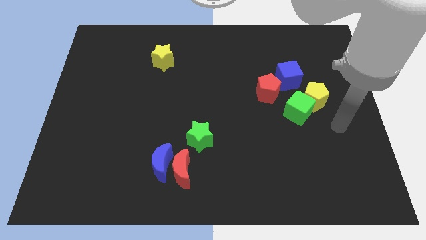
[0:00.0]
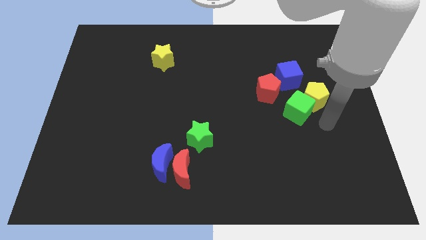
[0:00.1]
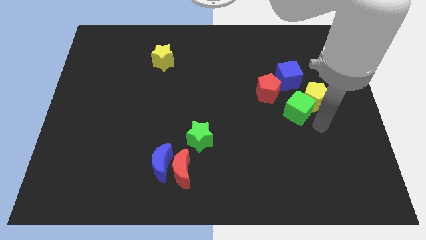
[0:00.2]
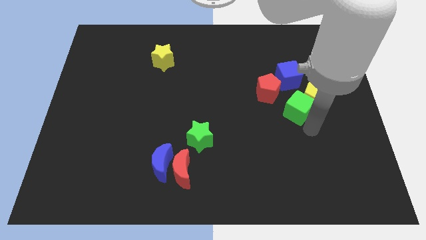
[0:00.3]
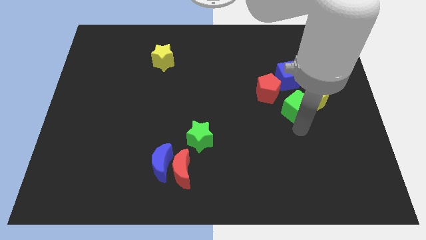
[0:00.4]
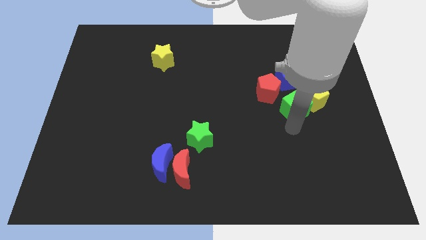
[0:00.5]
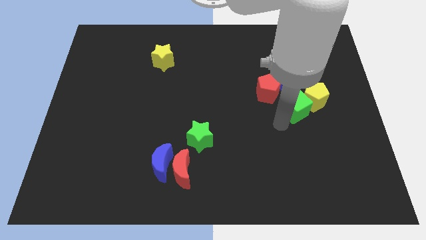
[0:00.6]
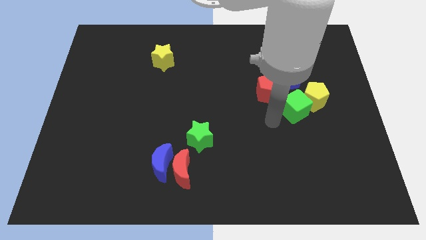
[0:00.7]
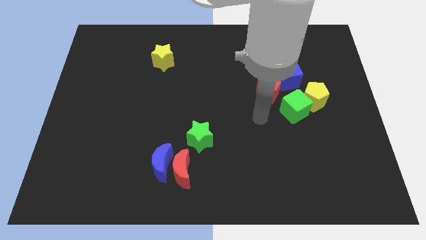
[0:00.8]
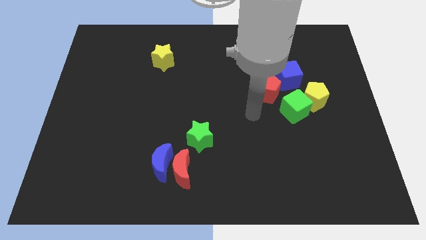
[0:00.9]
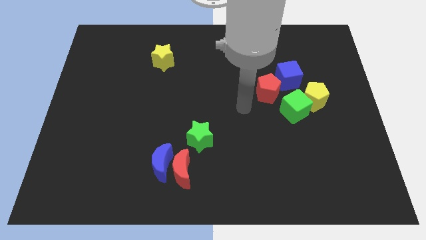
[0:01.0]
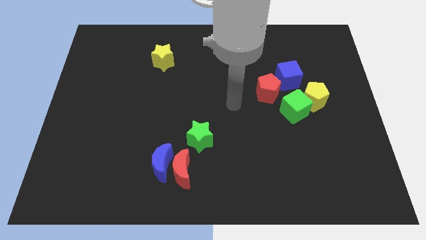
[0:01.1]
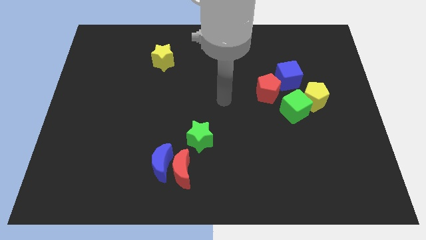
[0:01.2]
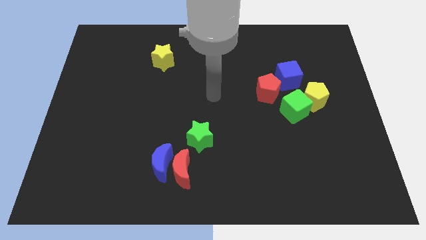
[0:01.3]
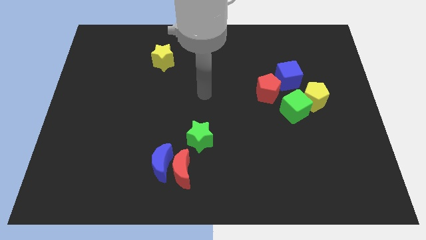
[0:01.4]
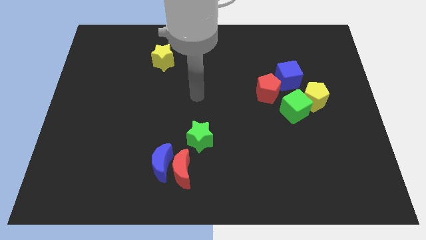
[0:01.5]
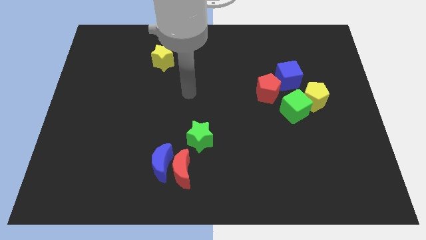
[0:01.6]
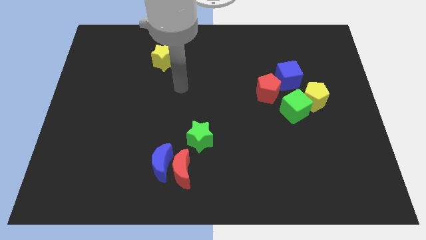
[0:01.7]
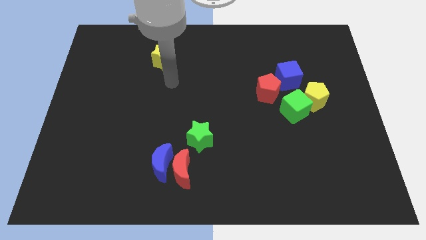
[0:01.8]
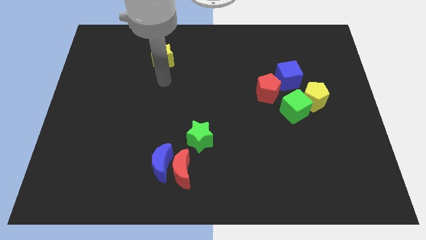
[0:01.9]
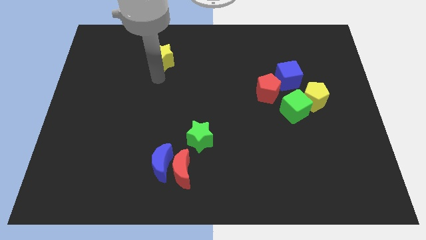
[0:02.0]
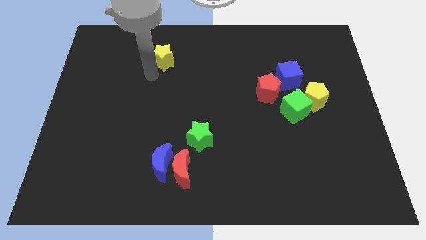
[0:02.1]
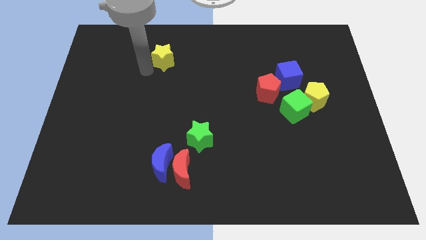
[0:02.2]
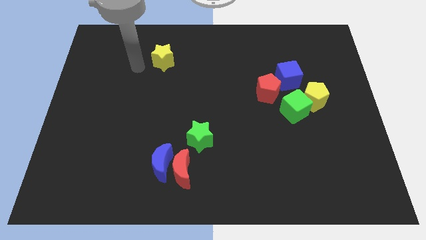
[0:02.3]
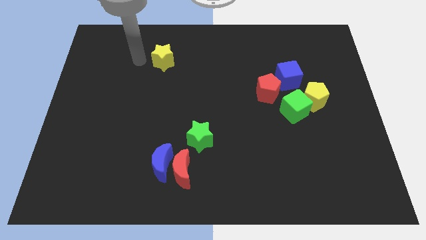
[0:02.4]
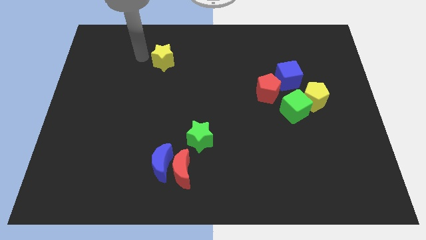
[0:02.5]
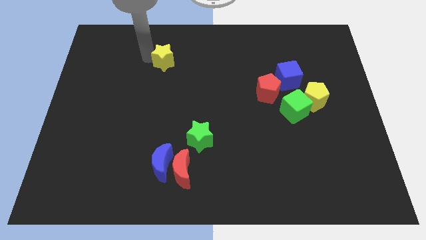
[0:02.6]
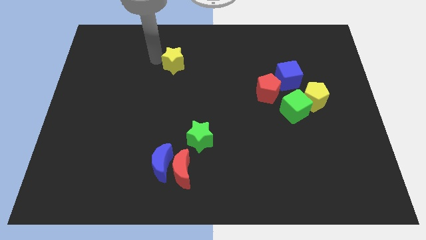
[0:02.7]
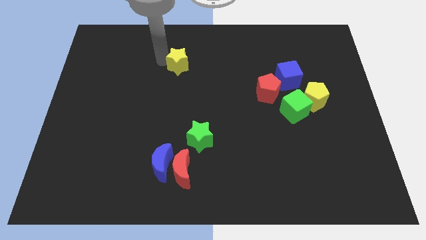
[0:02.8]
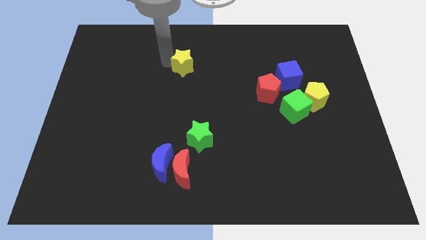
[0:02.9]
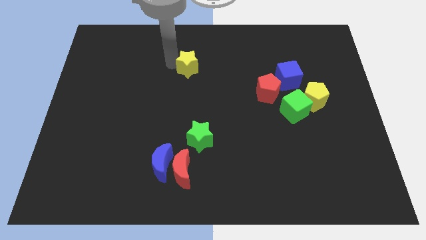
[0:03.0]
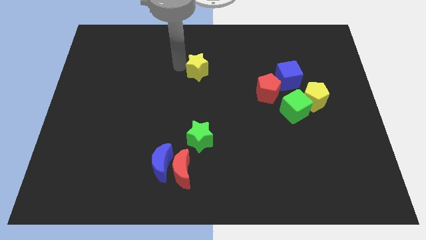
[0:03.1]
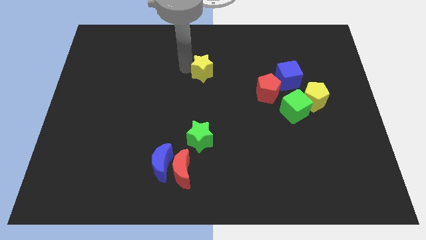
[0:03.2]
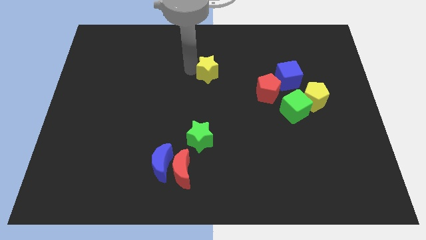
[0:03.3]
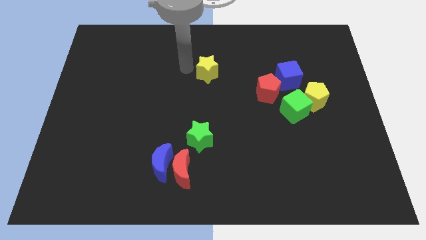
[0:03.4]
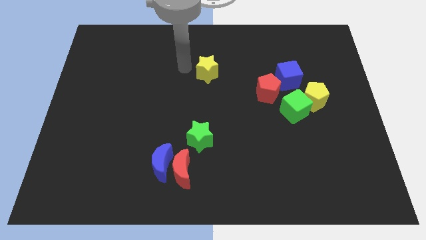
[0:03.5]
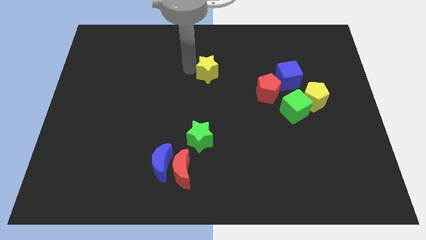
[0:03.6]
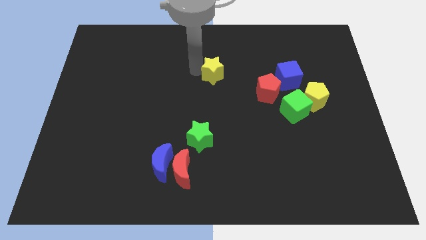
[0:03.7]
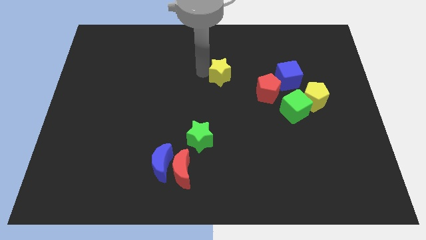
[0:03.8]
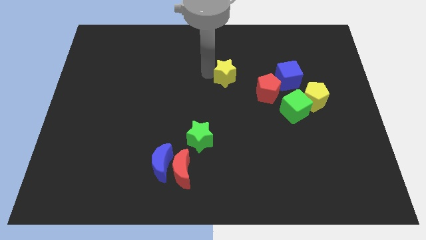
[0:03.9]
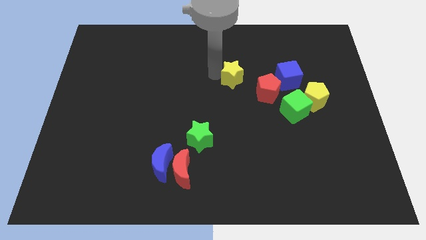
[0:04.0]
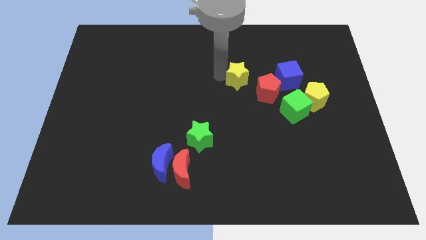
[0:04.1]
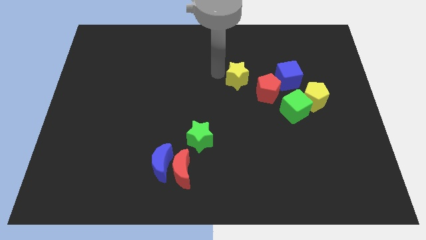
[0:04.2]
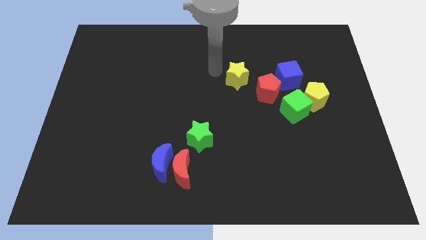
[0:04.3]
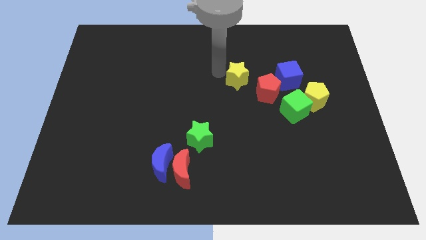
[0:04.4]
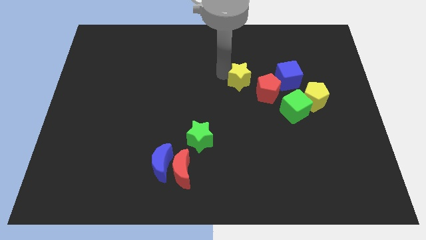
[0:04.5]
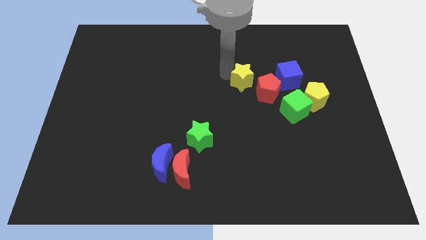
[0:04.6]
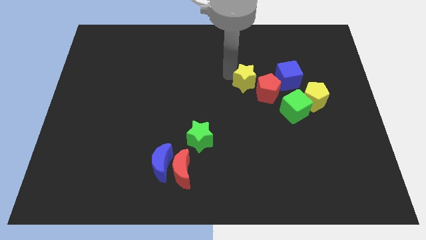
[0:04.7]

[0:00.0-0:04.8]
push the yellow star next to the red pentagon

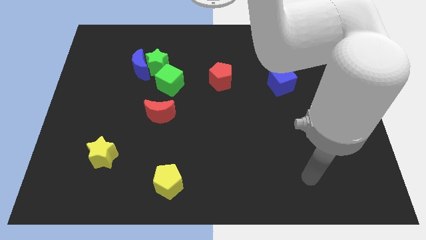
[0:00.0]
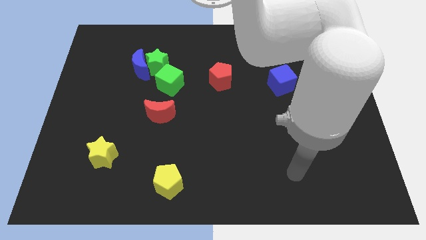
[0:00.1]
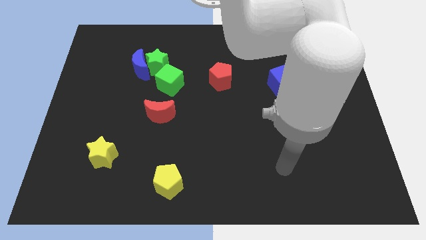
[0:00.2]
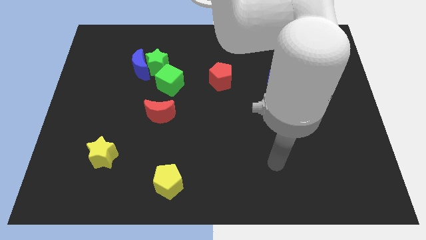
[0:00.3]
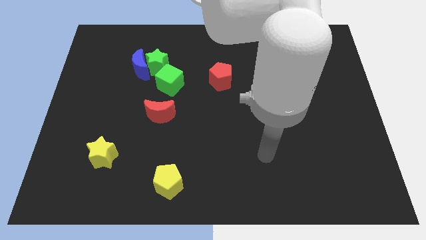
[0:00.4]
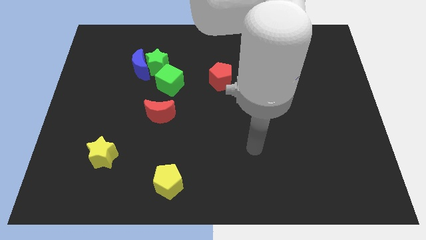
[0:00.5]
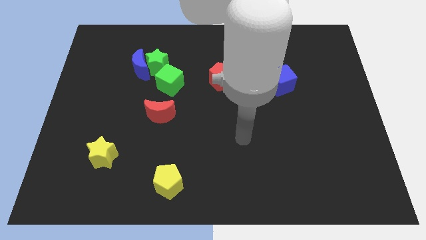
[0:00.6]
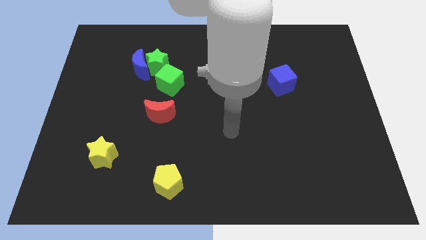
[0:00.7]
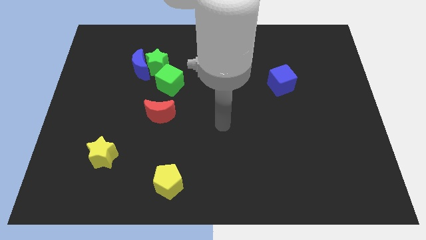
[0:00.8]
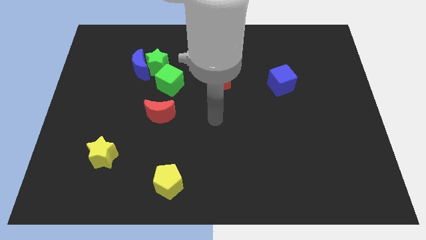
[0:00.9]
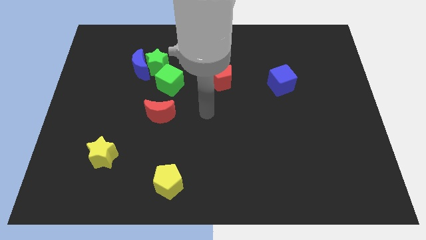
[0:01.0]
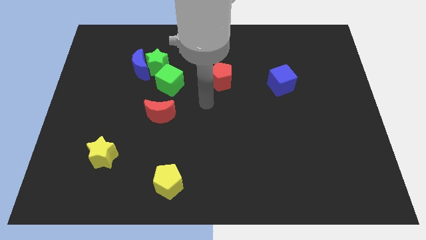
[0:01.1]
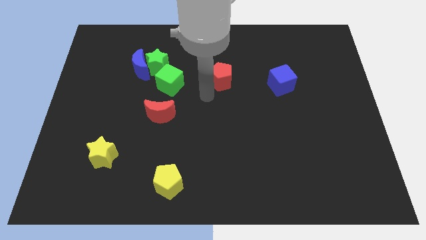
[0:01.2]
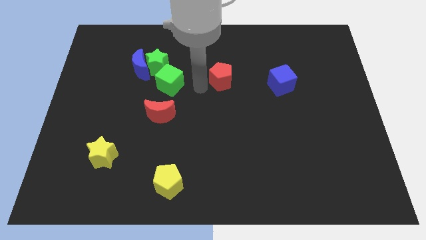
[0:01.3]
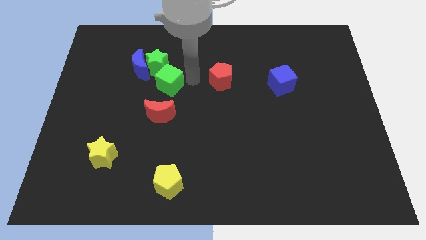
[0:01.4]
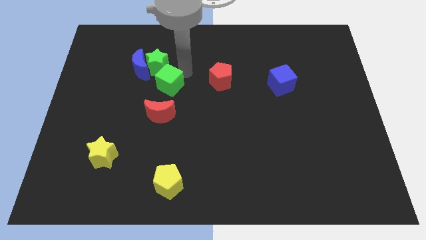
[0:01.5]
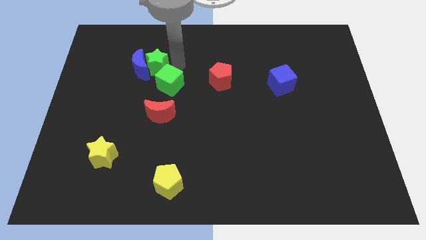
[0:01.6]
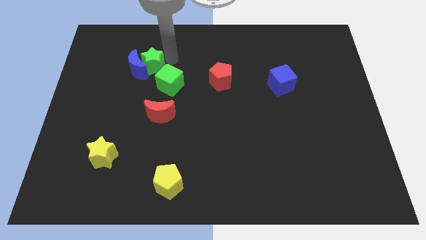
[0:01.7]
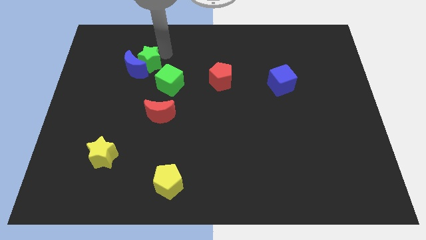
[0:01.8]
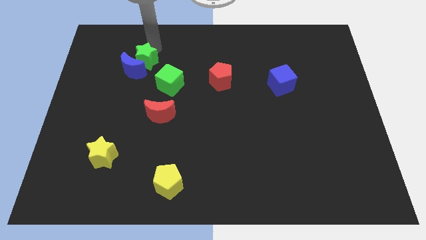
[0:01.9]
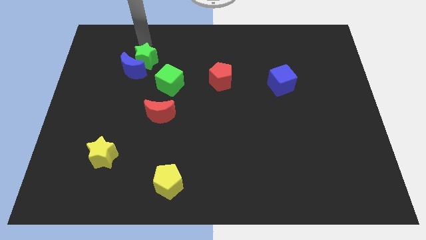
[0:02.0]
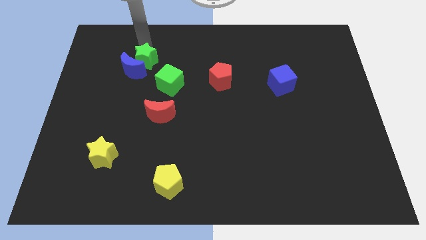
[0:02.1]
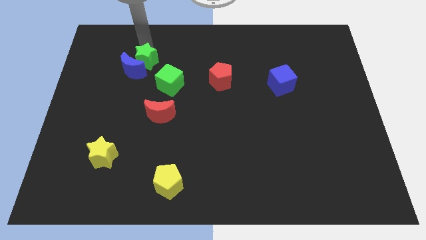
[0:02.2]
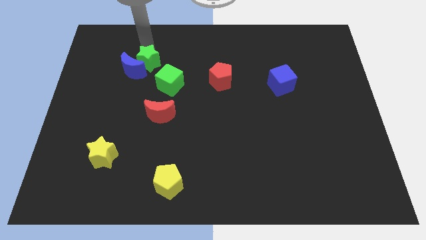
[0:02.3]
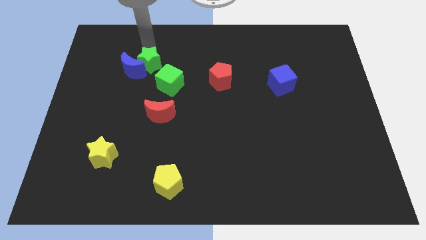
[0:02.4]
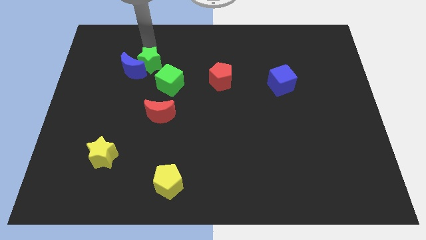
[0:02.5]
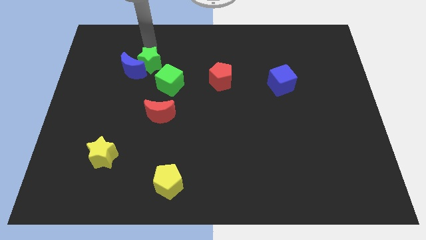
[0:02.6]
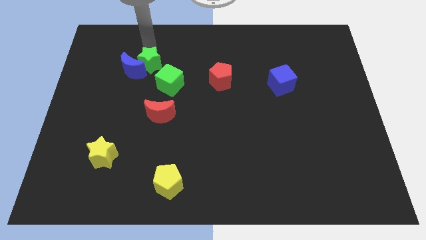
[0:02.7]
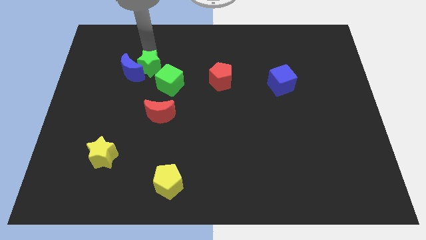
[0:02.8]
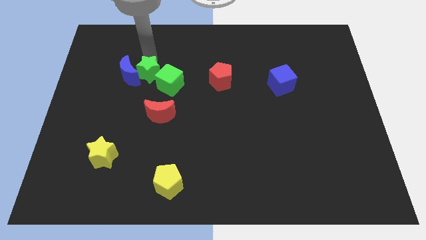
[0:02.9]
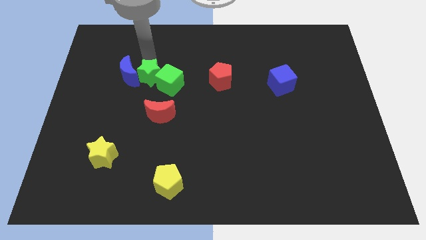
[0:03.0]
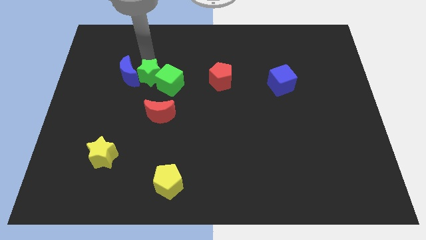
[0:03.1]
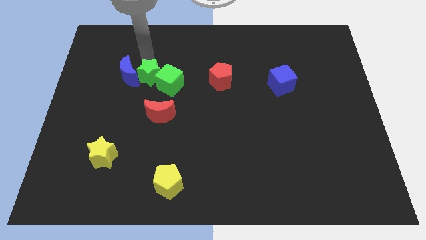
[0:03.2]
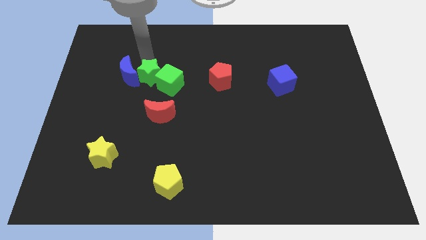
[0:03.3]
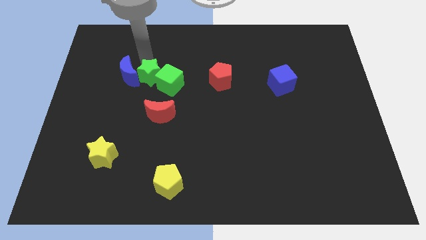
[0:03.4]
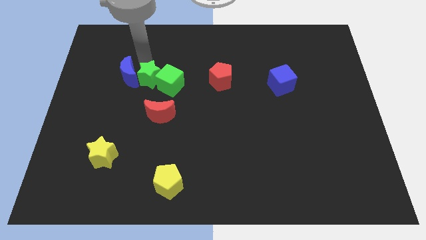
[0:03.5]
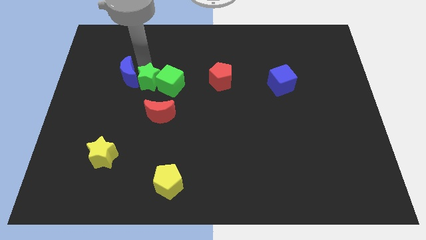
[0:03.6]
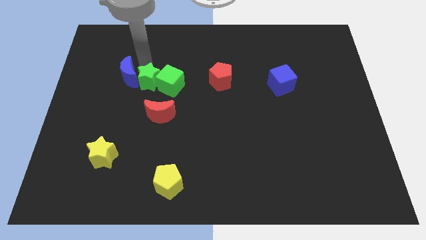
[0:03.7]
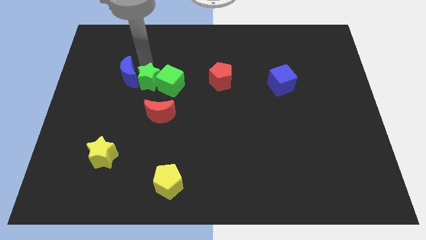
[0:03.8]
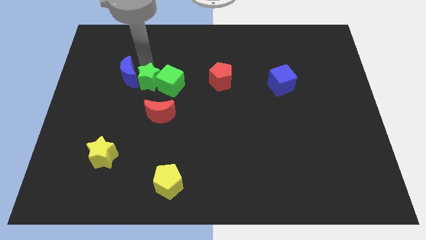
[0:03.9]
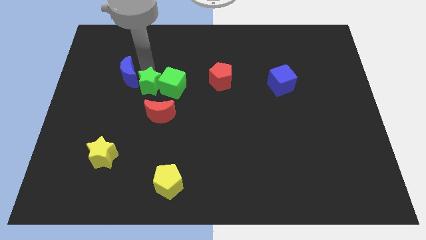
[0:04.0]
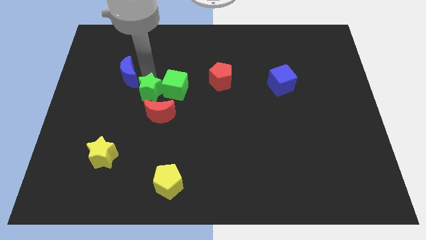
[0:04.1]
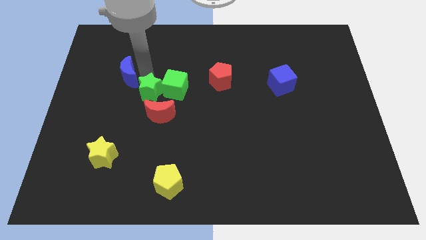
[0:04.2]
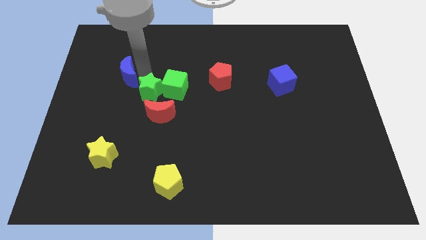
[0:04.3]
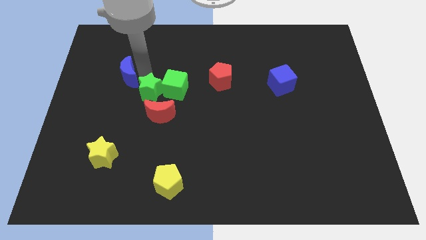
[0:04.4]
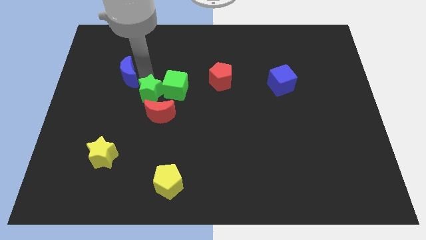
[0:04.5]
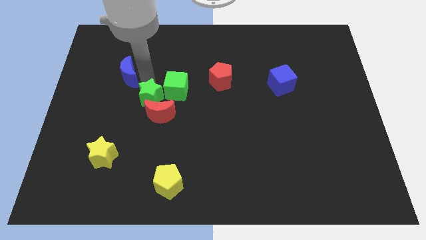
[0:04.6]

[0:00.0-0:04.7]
slide the green star next to the red moon
